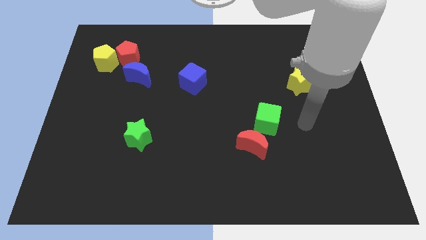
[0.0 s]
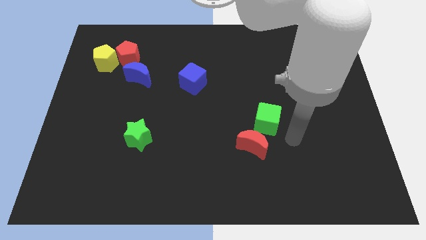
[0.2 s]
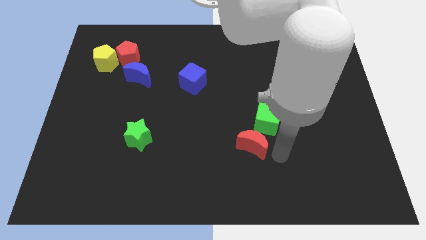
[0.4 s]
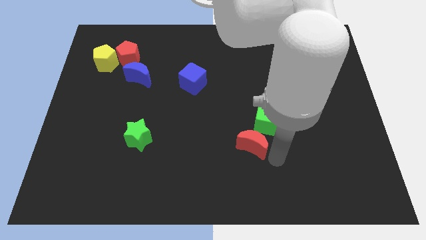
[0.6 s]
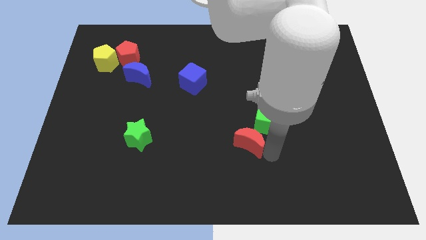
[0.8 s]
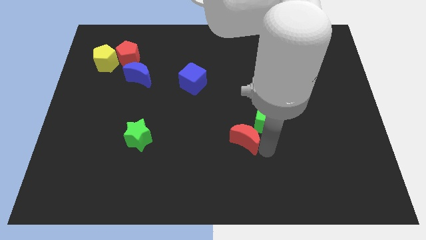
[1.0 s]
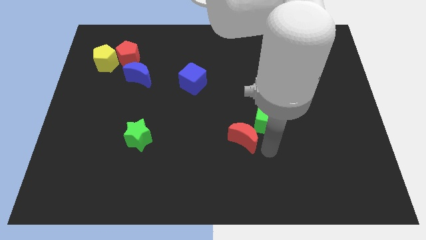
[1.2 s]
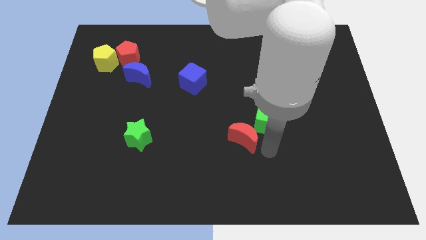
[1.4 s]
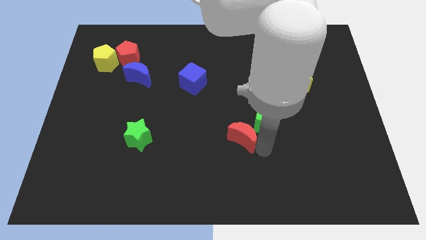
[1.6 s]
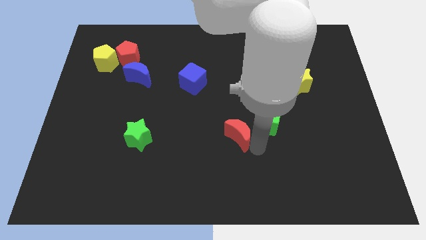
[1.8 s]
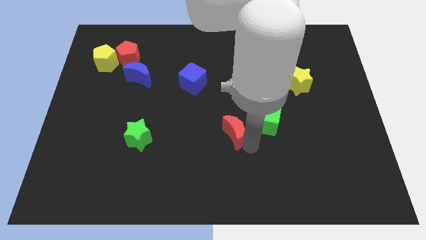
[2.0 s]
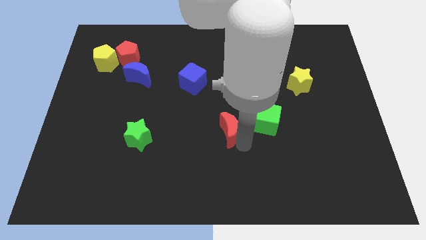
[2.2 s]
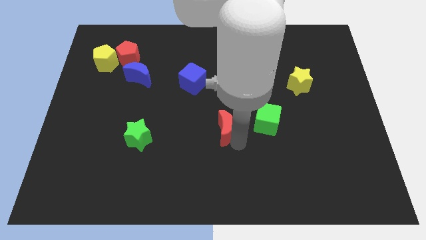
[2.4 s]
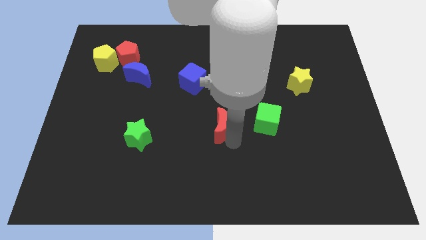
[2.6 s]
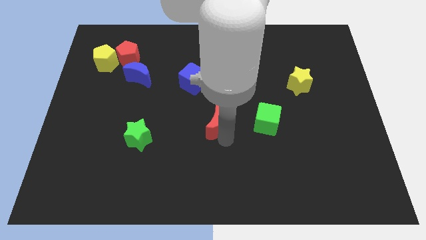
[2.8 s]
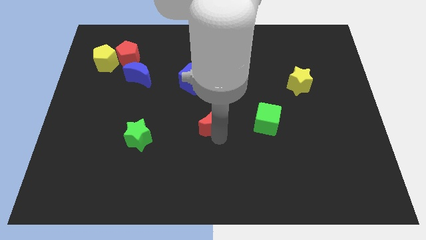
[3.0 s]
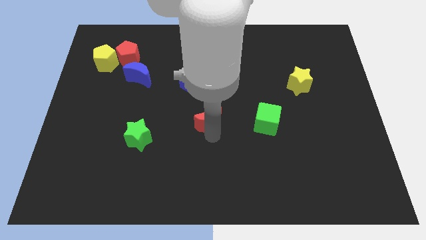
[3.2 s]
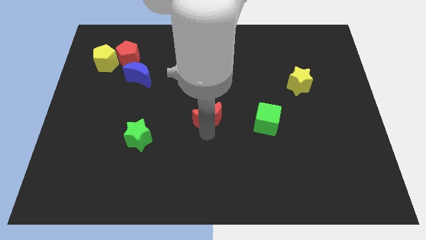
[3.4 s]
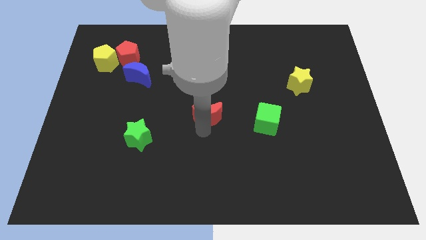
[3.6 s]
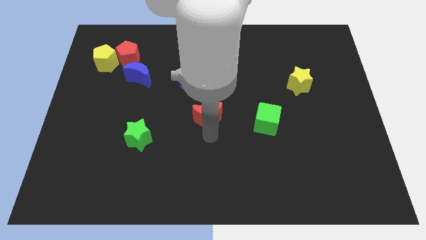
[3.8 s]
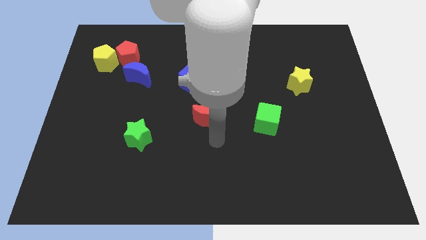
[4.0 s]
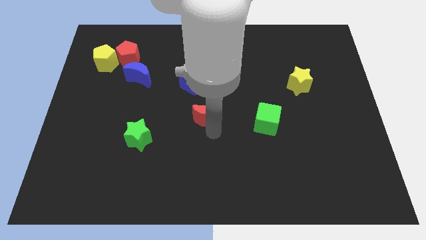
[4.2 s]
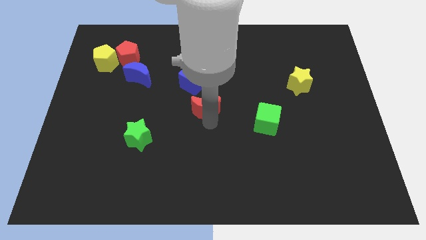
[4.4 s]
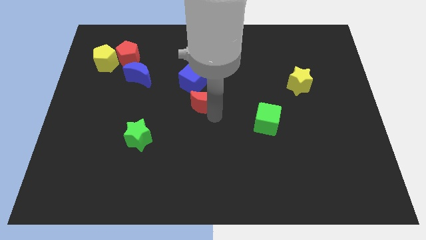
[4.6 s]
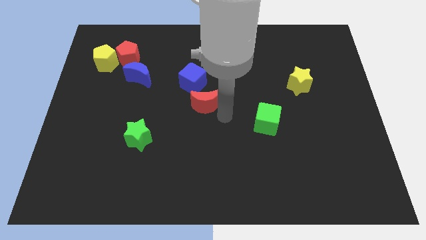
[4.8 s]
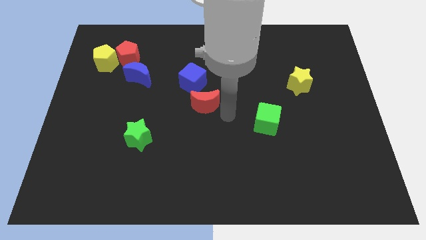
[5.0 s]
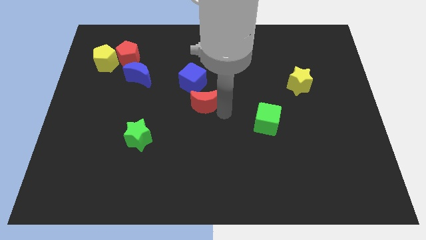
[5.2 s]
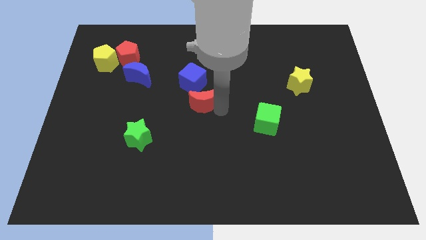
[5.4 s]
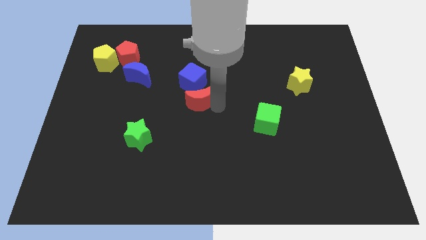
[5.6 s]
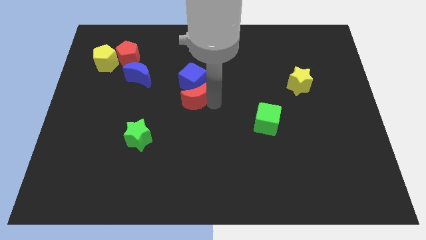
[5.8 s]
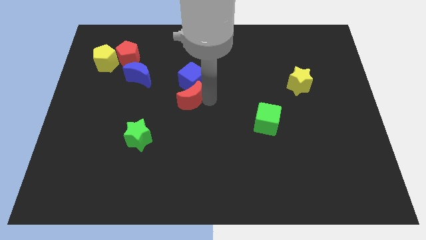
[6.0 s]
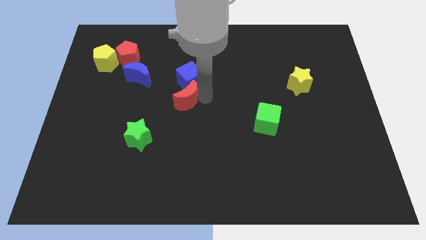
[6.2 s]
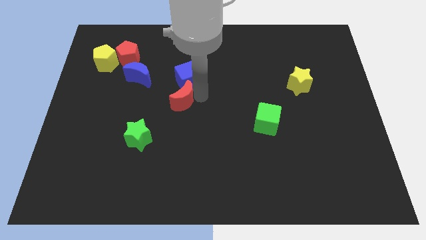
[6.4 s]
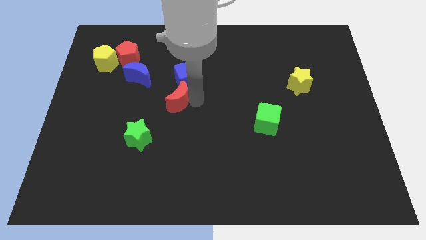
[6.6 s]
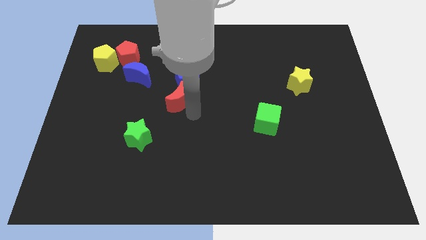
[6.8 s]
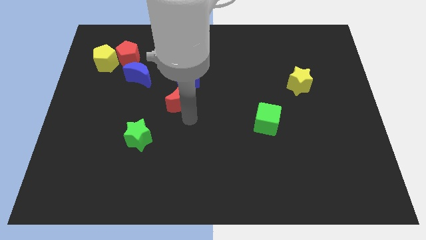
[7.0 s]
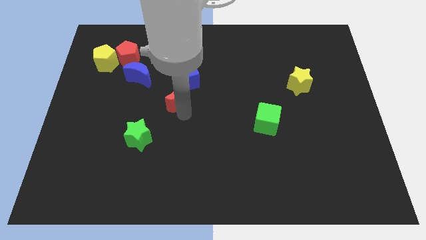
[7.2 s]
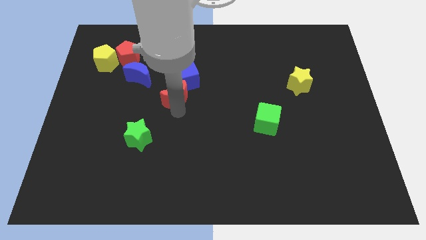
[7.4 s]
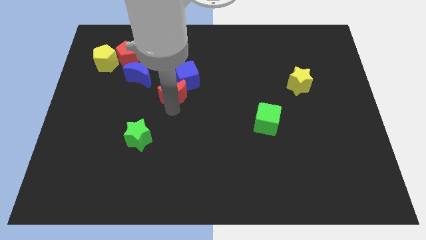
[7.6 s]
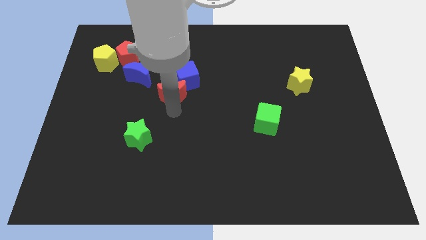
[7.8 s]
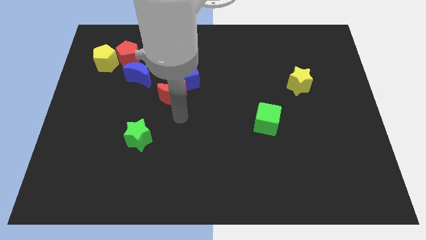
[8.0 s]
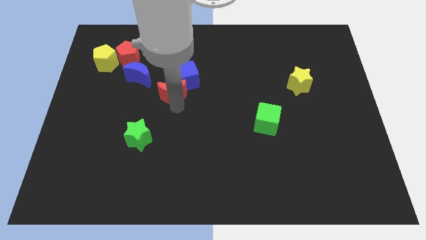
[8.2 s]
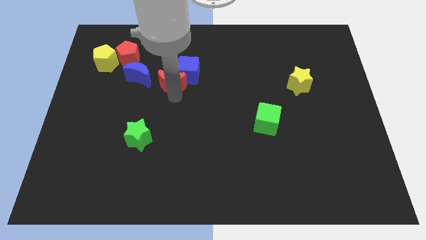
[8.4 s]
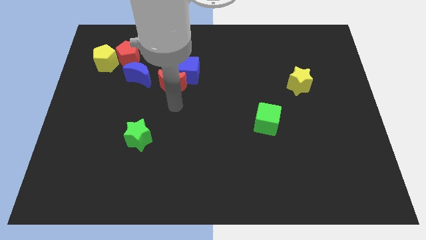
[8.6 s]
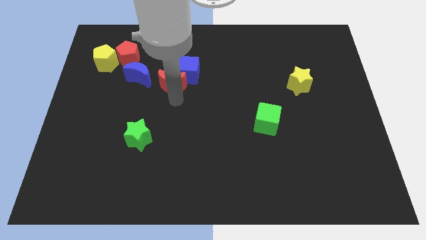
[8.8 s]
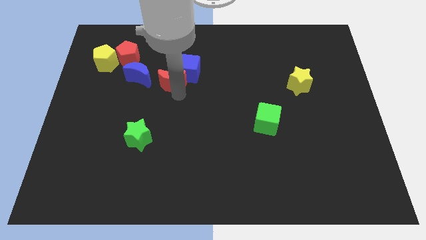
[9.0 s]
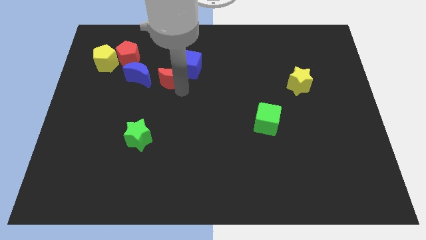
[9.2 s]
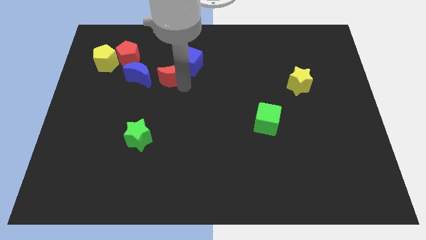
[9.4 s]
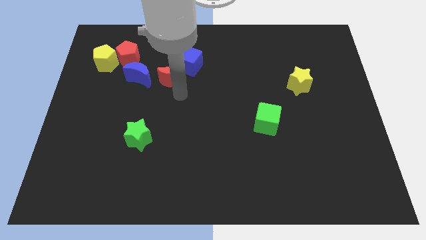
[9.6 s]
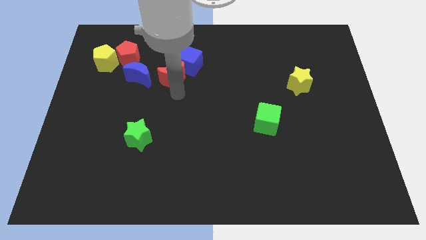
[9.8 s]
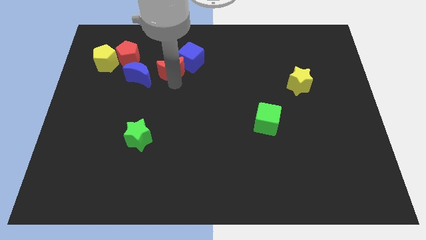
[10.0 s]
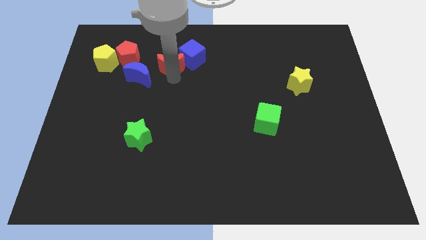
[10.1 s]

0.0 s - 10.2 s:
slide the red moon just right of the red pentagon

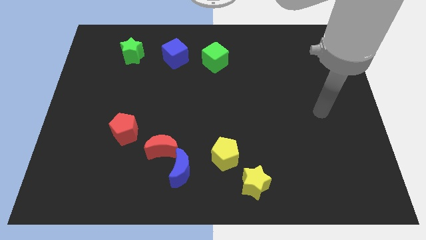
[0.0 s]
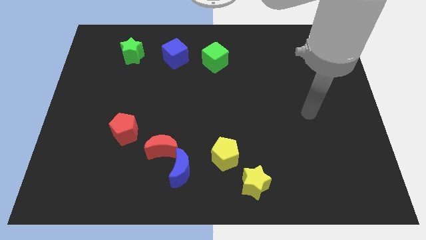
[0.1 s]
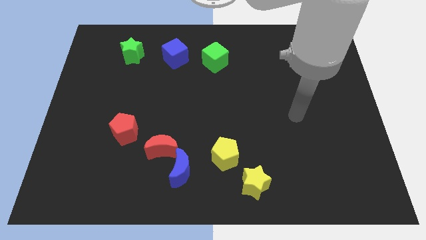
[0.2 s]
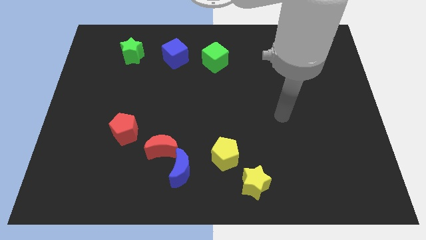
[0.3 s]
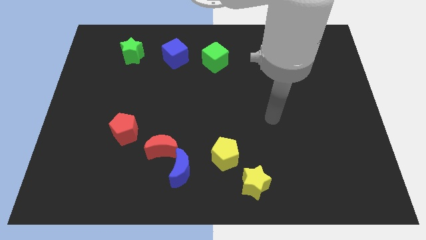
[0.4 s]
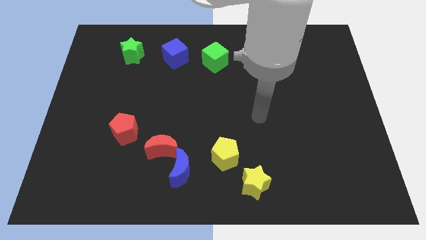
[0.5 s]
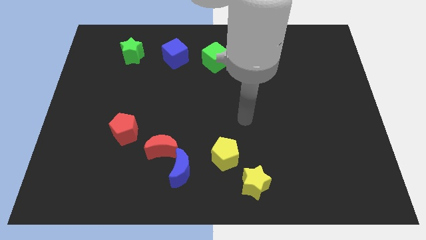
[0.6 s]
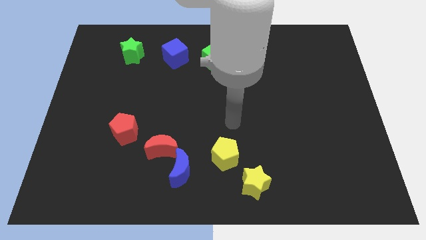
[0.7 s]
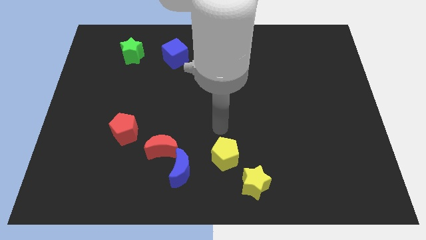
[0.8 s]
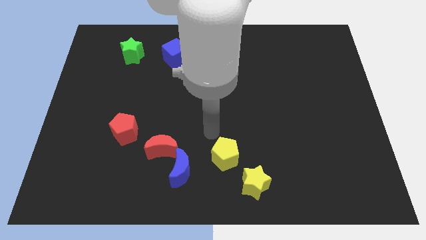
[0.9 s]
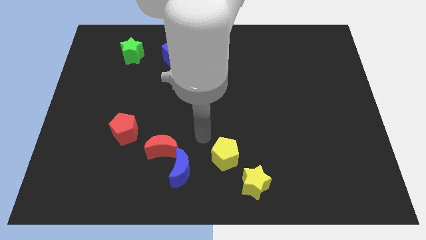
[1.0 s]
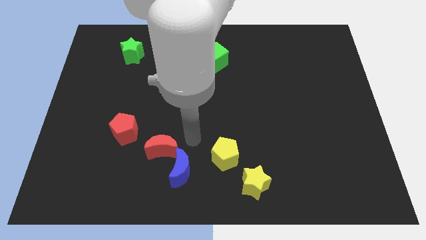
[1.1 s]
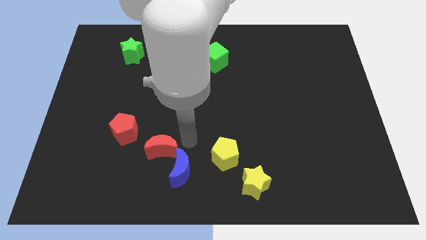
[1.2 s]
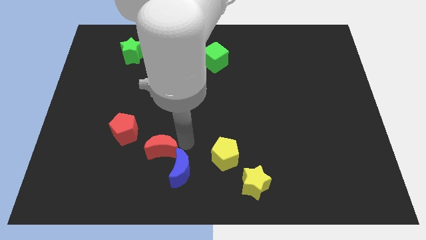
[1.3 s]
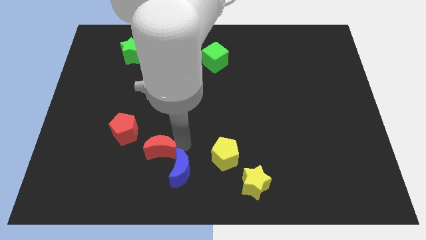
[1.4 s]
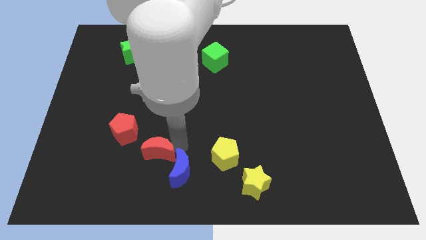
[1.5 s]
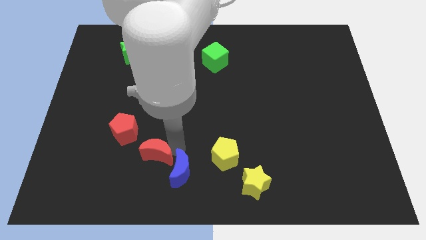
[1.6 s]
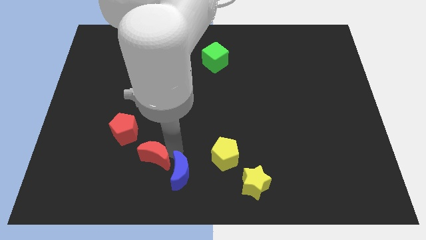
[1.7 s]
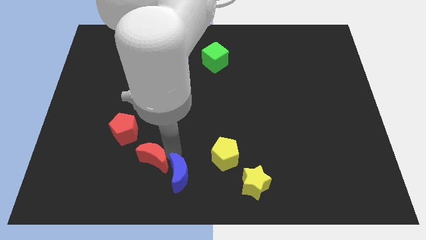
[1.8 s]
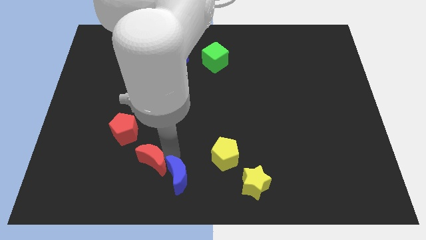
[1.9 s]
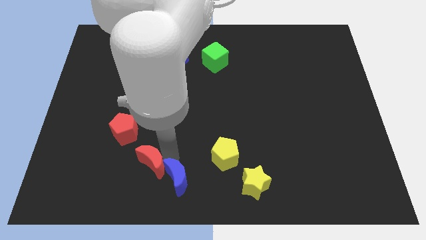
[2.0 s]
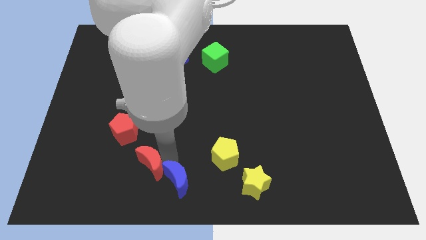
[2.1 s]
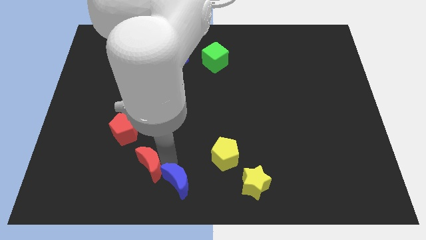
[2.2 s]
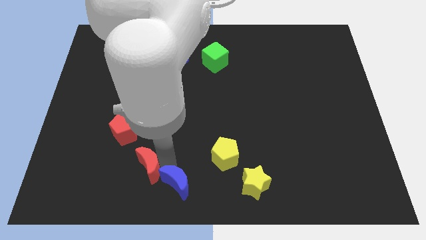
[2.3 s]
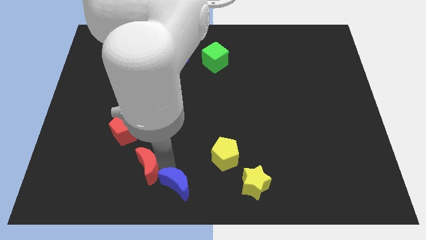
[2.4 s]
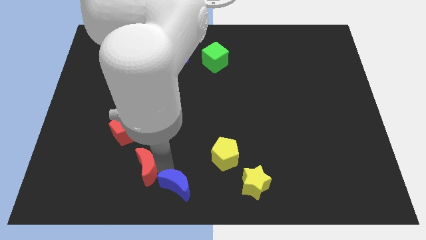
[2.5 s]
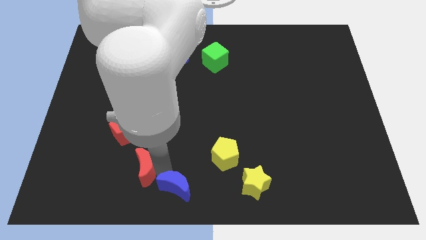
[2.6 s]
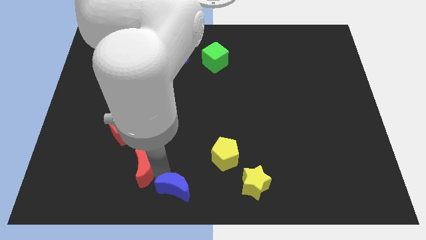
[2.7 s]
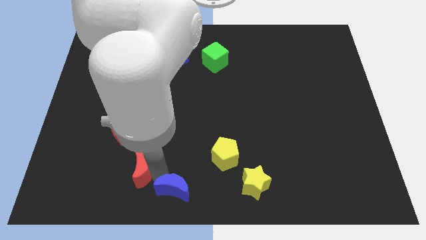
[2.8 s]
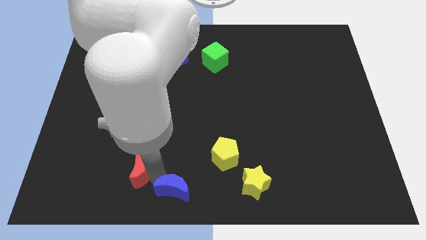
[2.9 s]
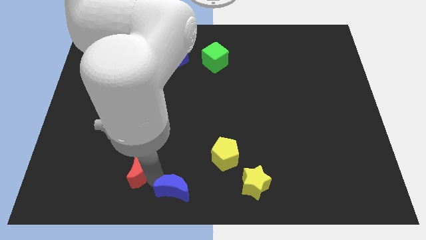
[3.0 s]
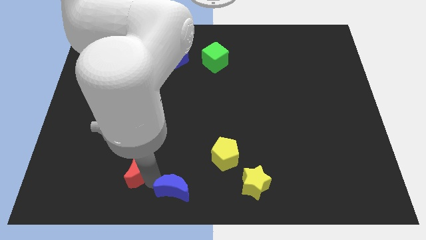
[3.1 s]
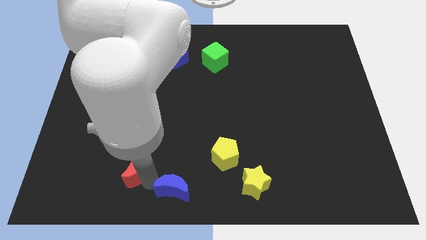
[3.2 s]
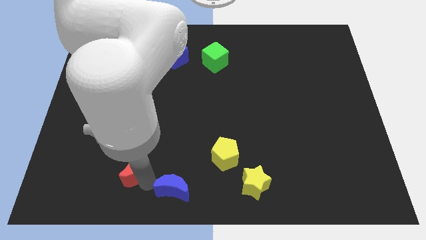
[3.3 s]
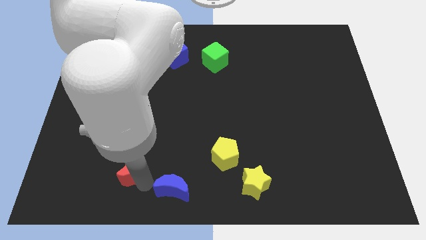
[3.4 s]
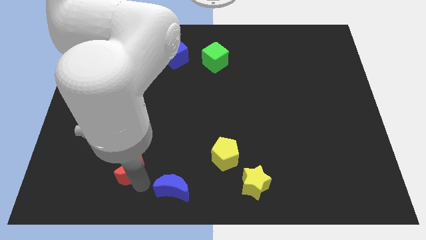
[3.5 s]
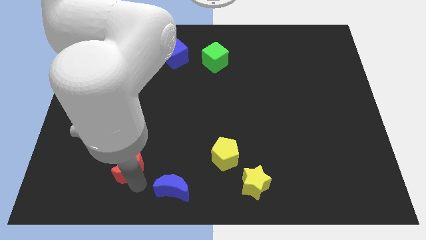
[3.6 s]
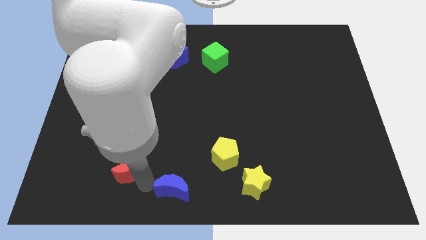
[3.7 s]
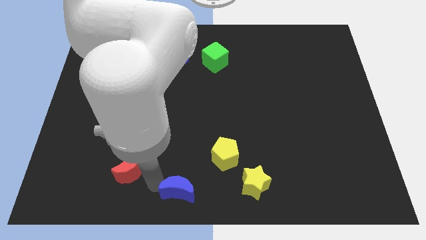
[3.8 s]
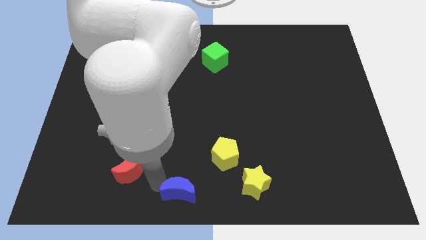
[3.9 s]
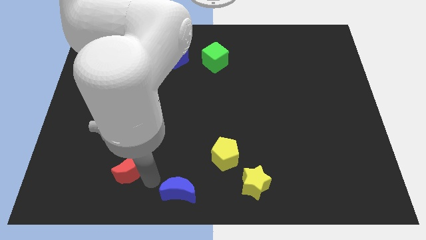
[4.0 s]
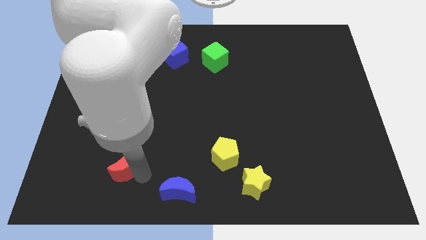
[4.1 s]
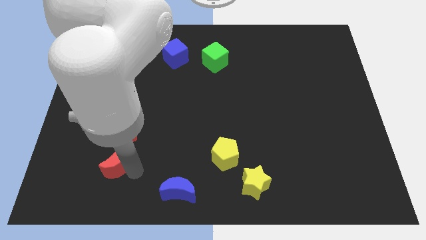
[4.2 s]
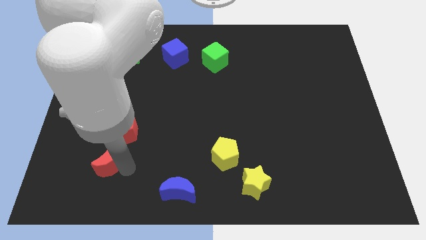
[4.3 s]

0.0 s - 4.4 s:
push the red moon diagonally down and to the left of the red pentagon
